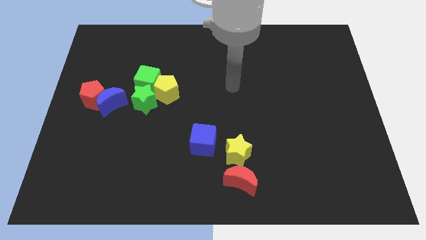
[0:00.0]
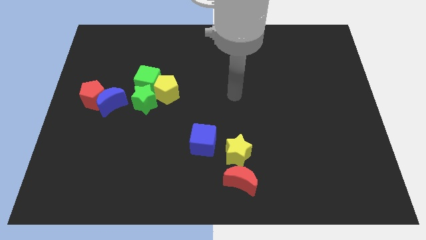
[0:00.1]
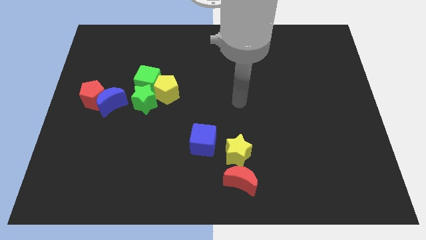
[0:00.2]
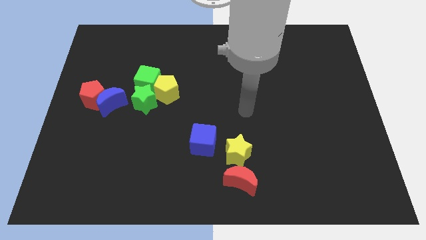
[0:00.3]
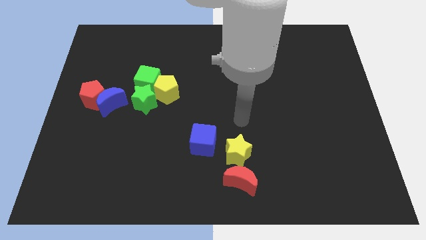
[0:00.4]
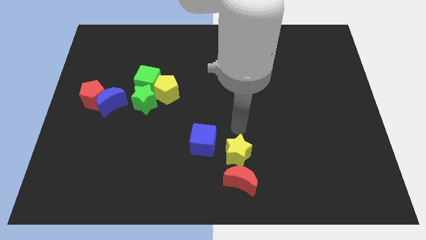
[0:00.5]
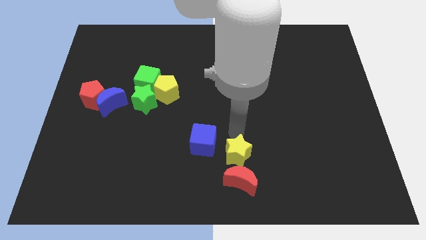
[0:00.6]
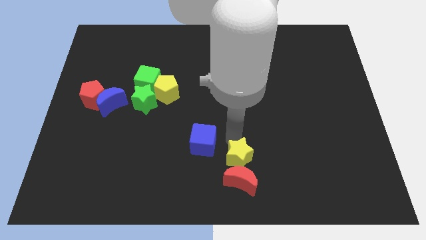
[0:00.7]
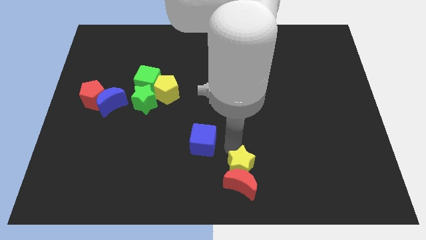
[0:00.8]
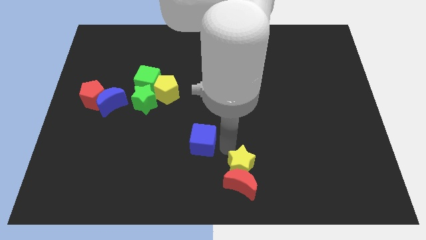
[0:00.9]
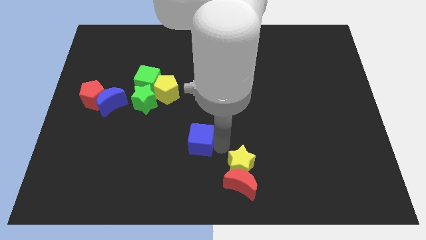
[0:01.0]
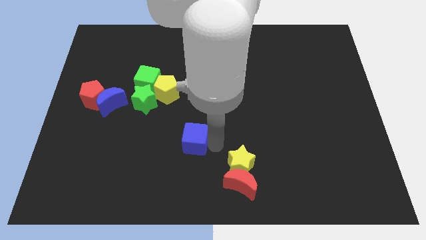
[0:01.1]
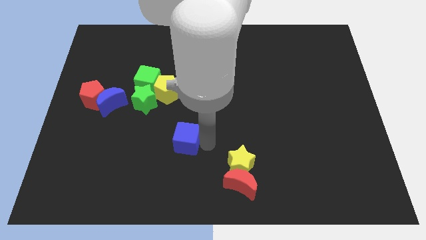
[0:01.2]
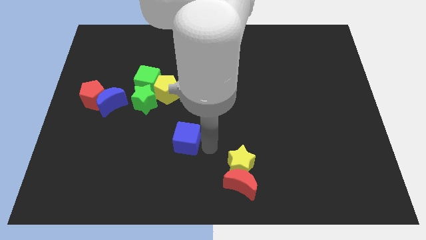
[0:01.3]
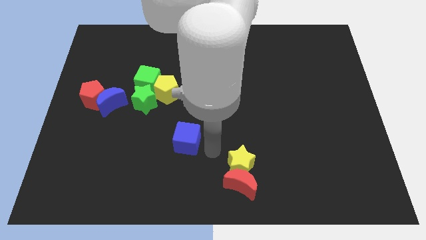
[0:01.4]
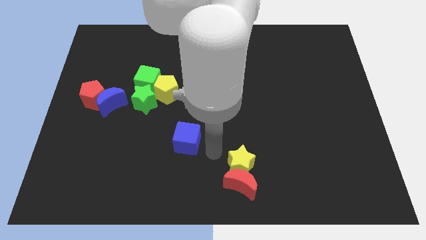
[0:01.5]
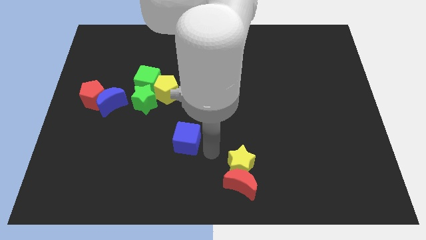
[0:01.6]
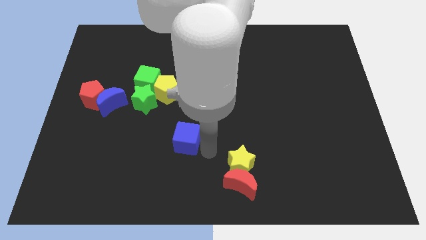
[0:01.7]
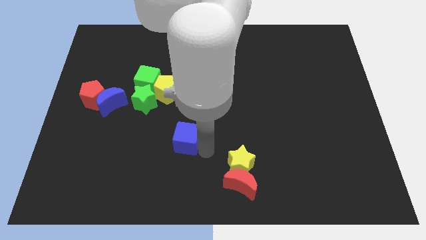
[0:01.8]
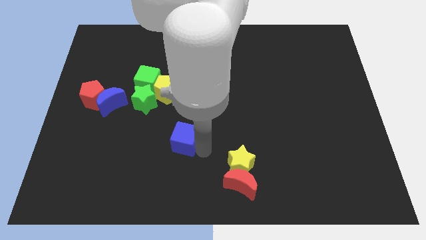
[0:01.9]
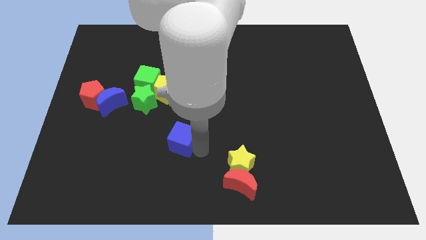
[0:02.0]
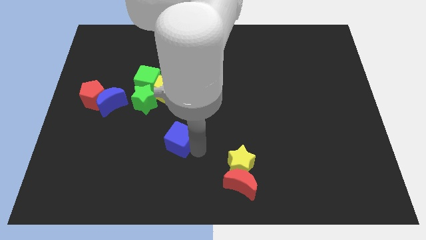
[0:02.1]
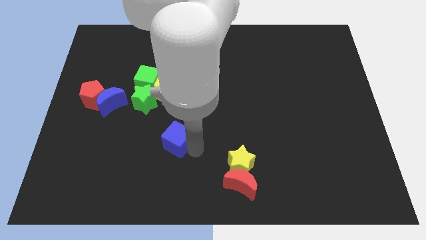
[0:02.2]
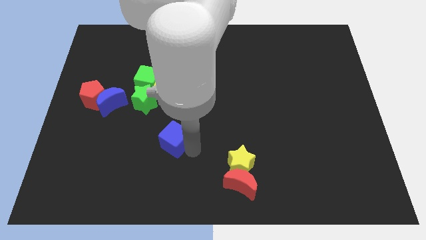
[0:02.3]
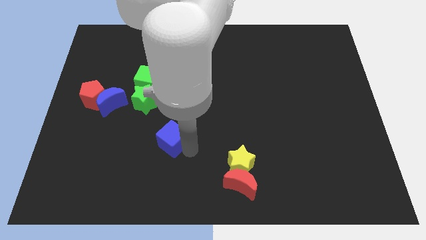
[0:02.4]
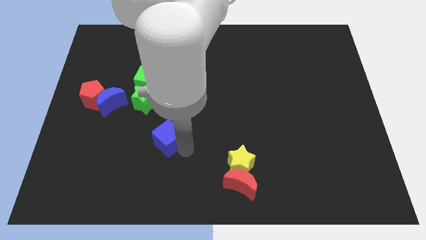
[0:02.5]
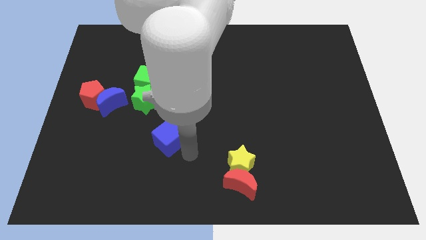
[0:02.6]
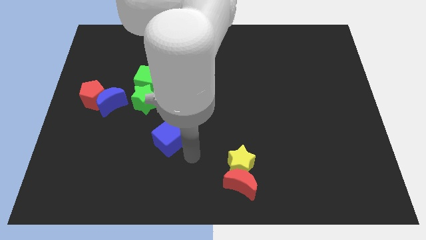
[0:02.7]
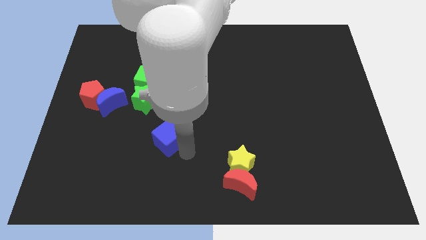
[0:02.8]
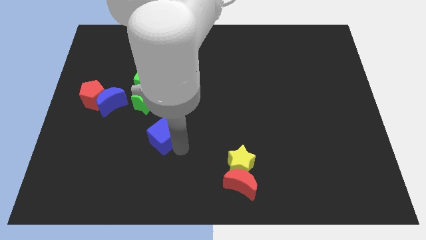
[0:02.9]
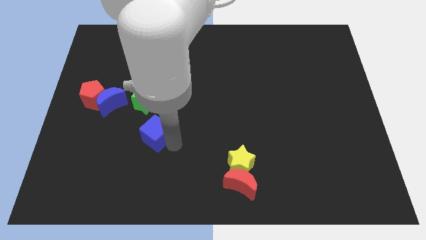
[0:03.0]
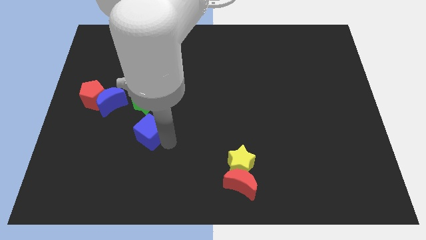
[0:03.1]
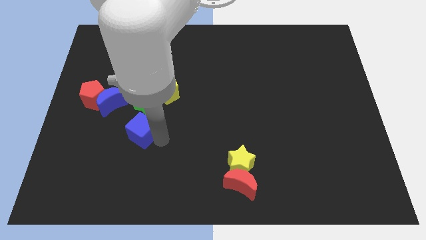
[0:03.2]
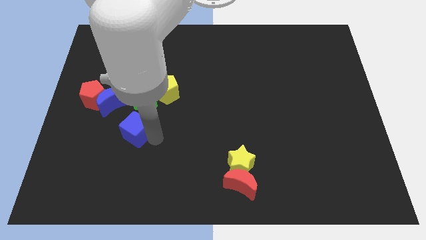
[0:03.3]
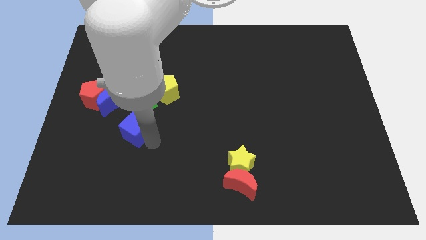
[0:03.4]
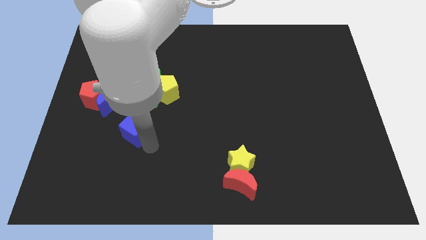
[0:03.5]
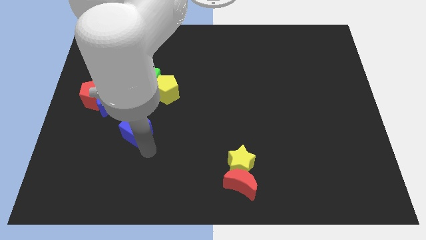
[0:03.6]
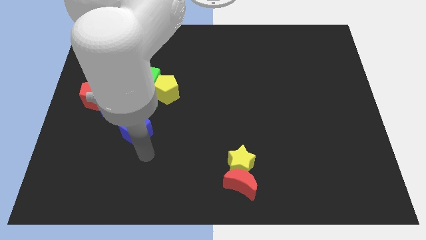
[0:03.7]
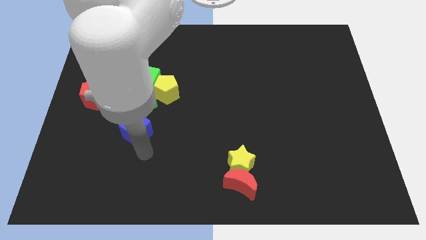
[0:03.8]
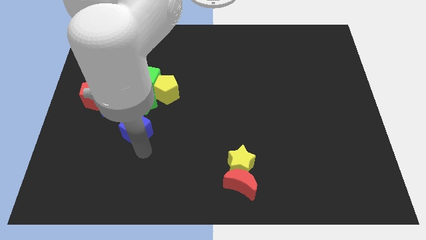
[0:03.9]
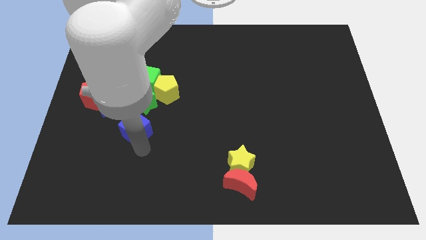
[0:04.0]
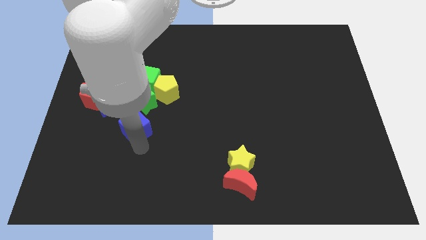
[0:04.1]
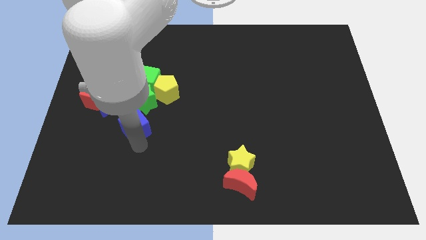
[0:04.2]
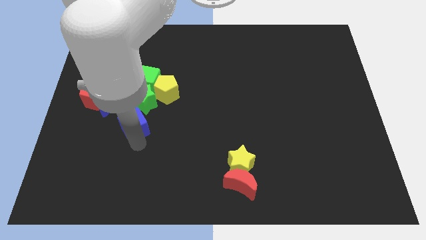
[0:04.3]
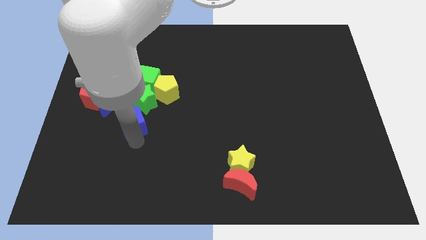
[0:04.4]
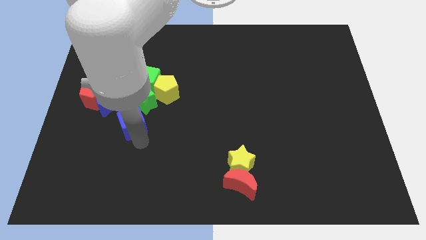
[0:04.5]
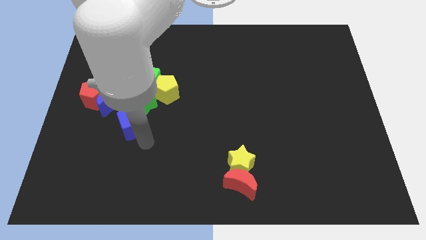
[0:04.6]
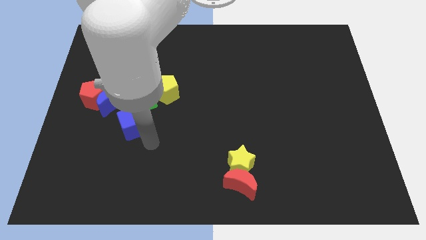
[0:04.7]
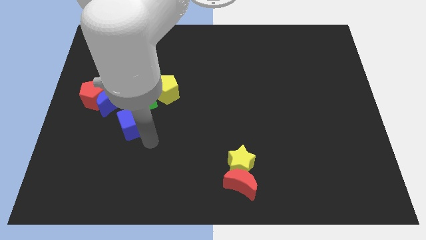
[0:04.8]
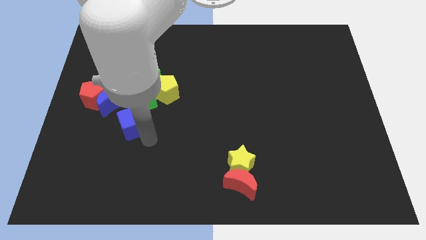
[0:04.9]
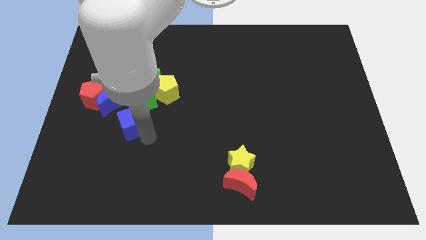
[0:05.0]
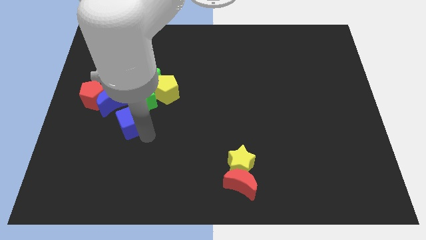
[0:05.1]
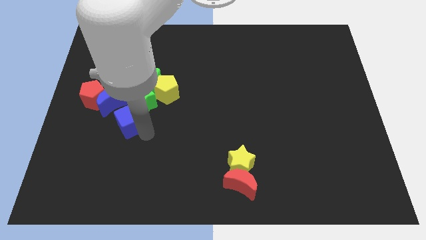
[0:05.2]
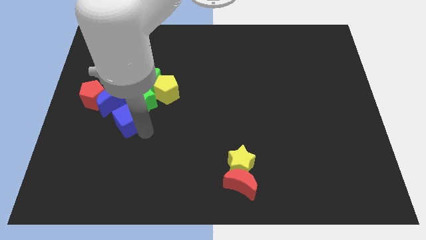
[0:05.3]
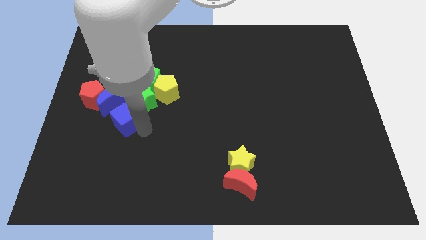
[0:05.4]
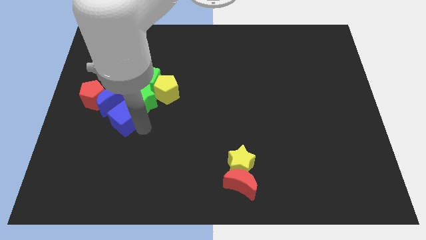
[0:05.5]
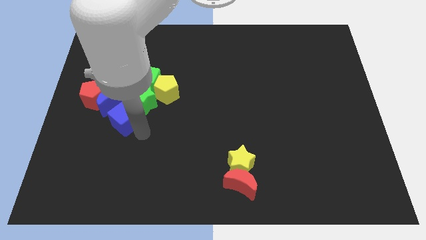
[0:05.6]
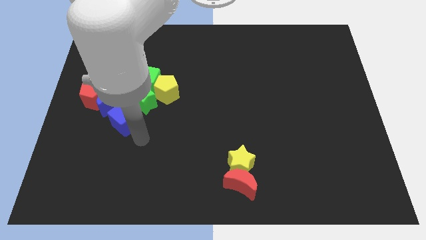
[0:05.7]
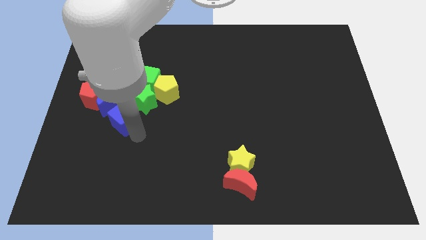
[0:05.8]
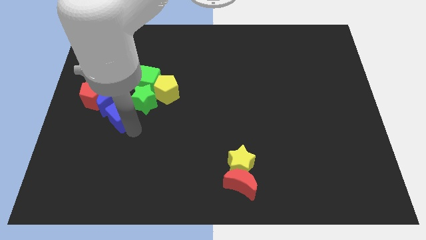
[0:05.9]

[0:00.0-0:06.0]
slide the blue cube to the blue moon
